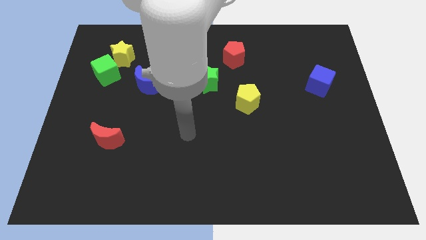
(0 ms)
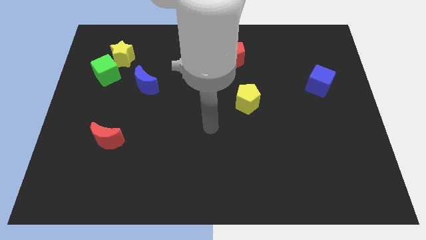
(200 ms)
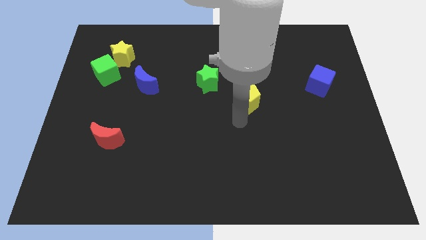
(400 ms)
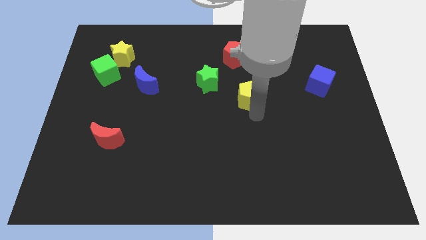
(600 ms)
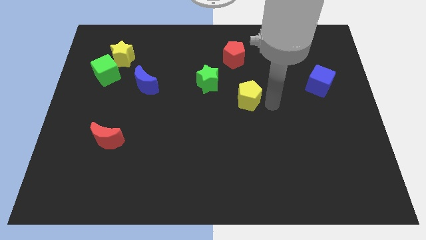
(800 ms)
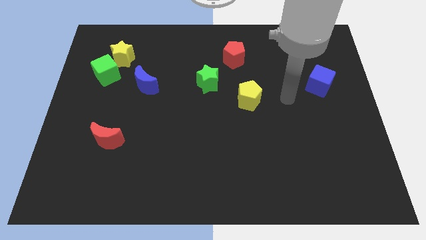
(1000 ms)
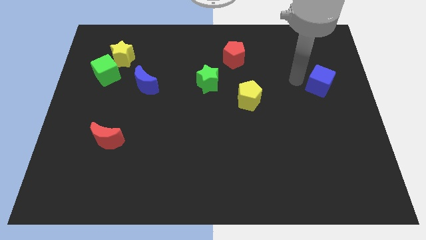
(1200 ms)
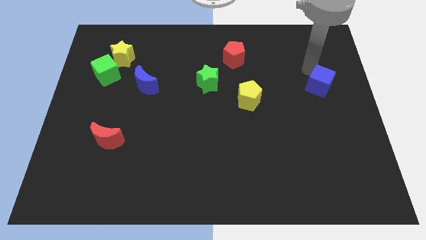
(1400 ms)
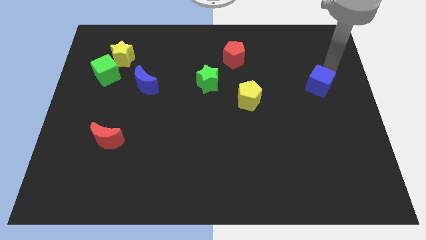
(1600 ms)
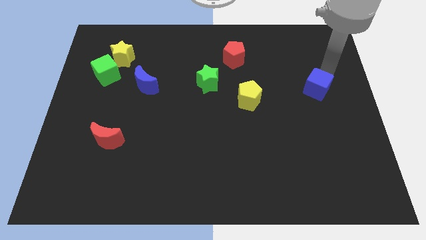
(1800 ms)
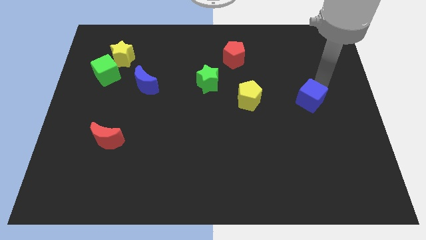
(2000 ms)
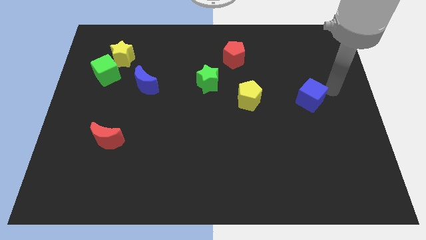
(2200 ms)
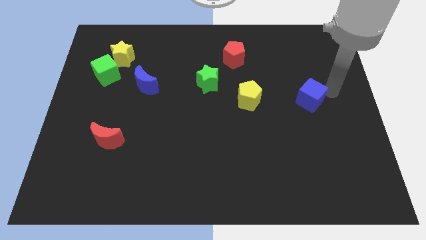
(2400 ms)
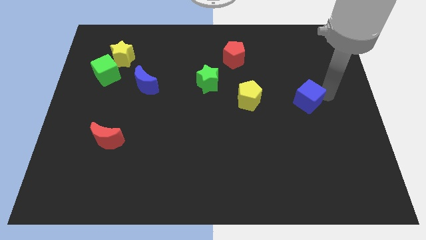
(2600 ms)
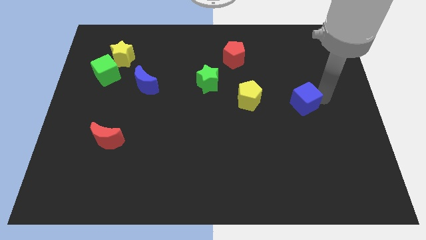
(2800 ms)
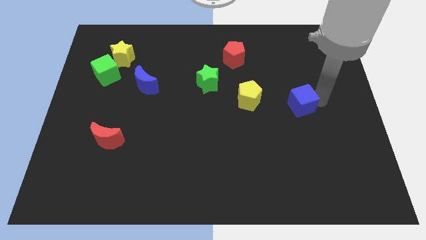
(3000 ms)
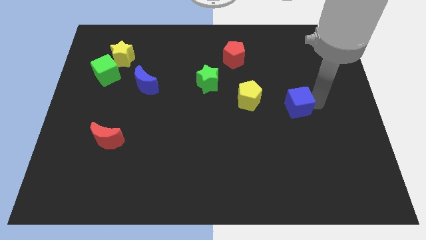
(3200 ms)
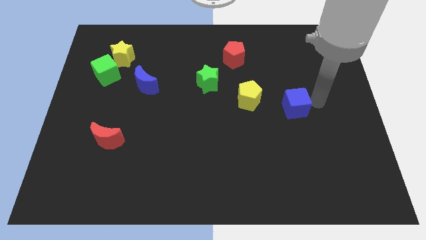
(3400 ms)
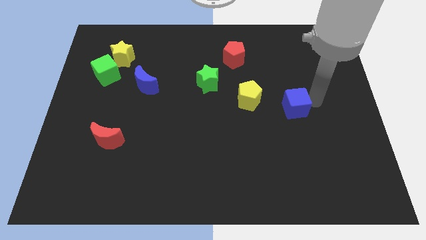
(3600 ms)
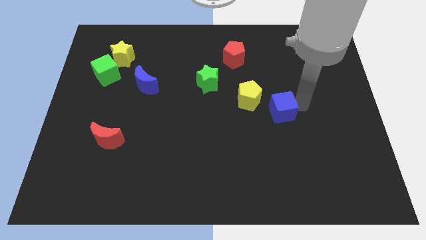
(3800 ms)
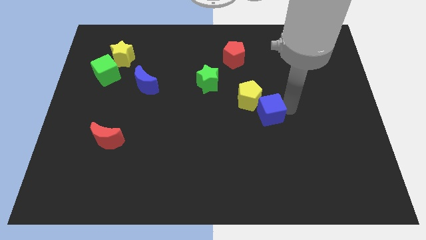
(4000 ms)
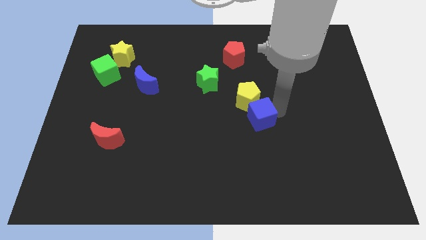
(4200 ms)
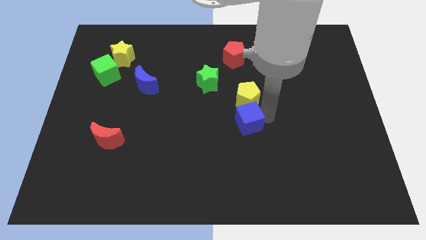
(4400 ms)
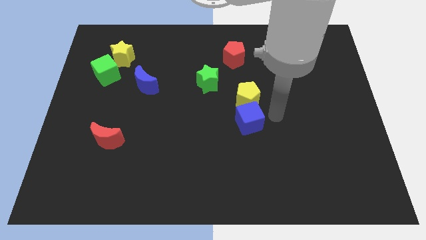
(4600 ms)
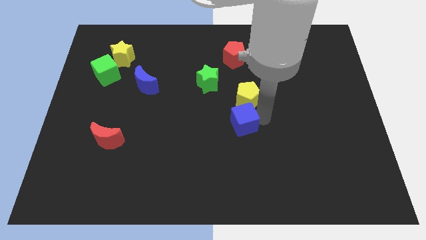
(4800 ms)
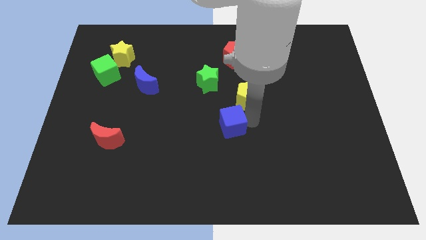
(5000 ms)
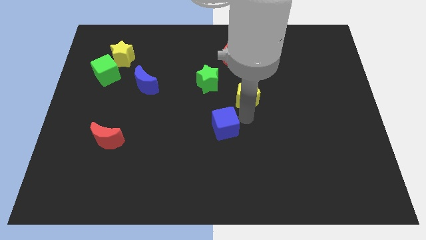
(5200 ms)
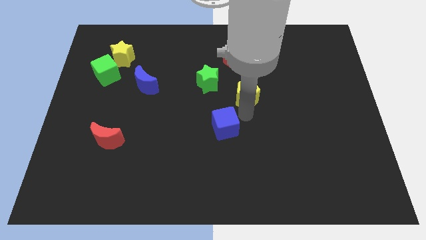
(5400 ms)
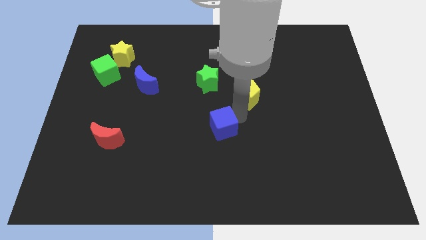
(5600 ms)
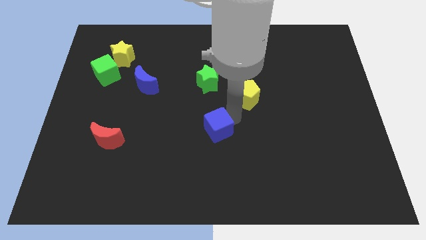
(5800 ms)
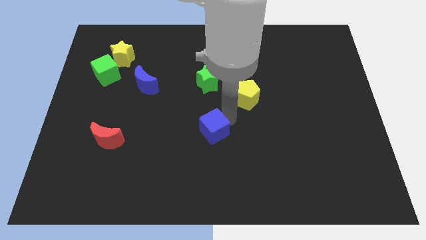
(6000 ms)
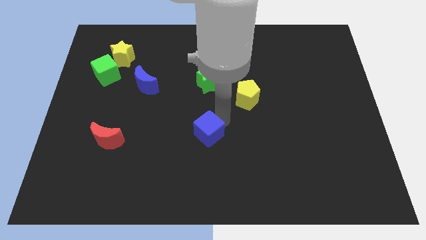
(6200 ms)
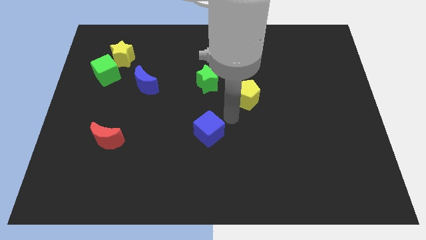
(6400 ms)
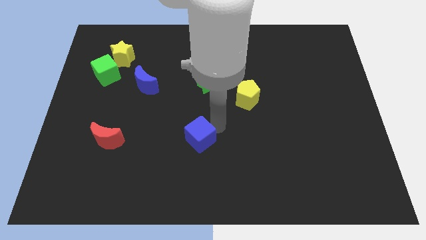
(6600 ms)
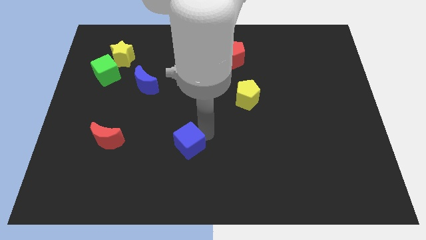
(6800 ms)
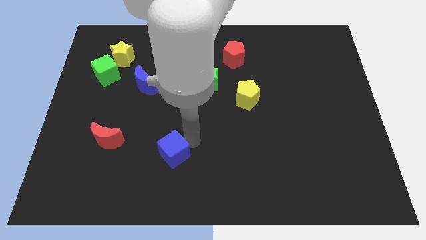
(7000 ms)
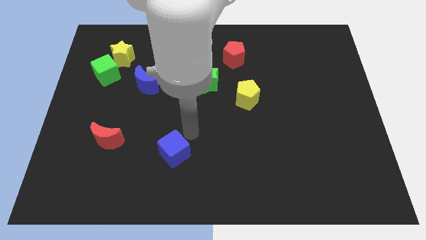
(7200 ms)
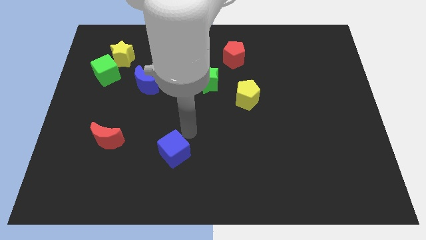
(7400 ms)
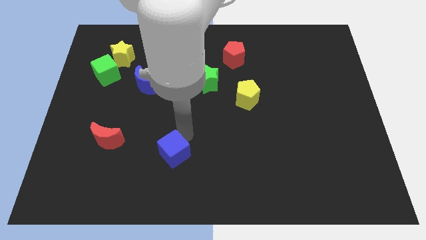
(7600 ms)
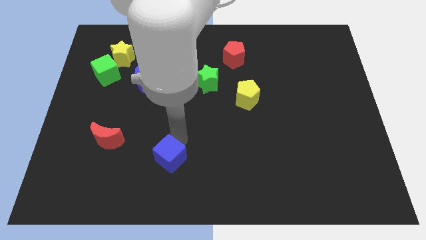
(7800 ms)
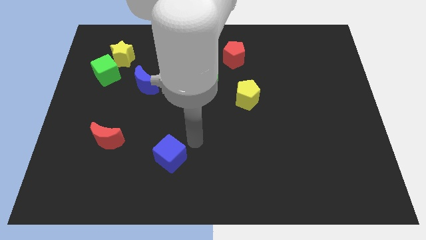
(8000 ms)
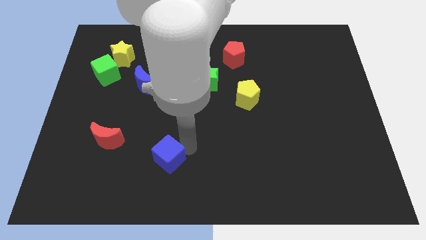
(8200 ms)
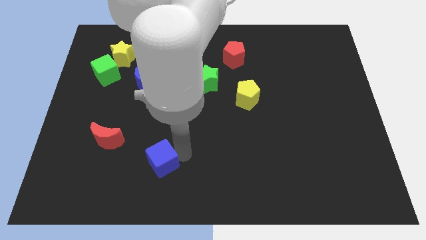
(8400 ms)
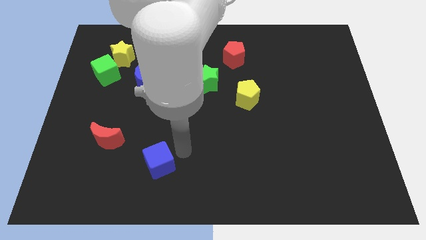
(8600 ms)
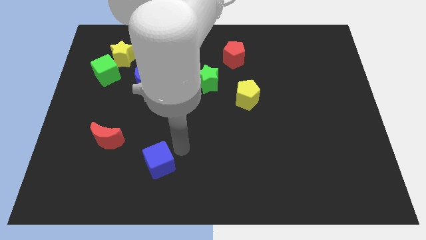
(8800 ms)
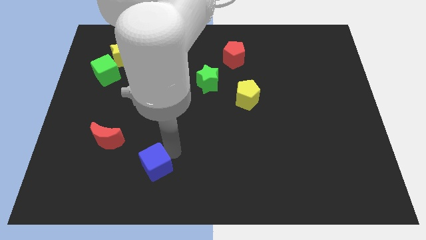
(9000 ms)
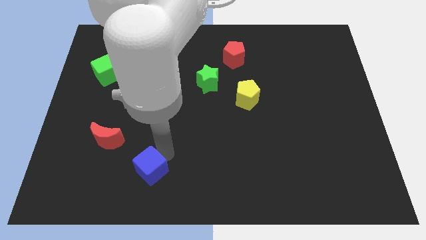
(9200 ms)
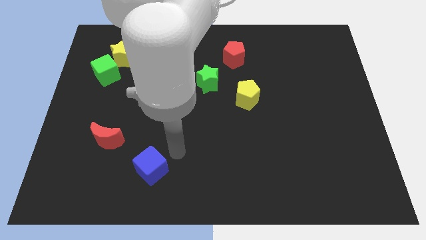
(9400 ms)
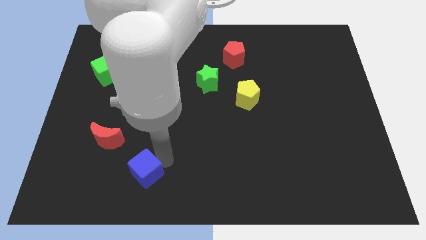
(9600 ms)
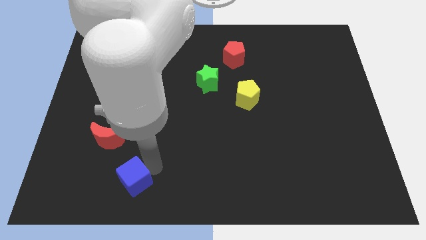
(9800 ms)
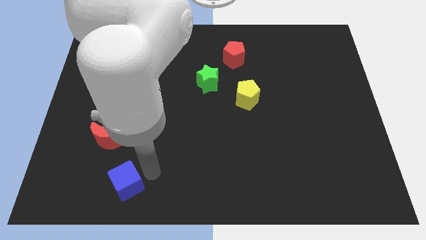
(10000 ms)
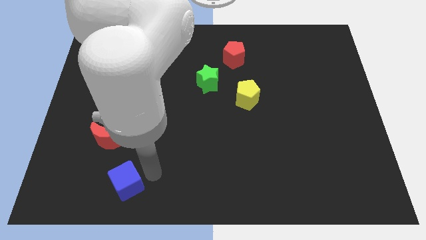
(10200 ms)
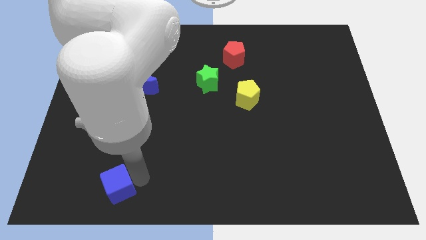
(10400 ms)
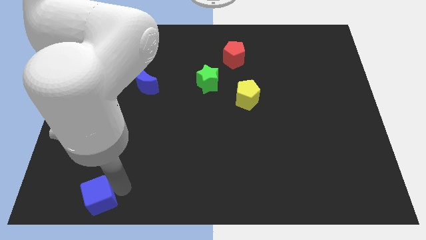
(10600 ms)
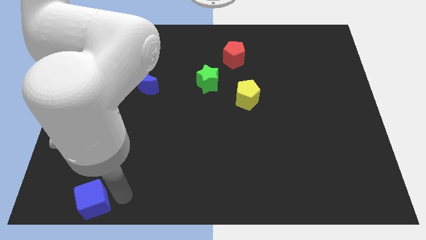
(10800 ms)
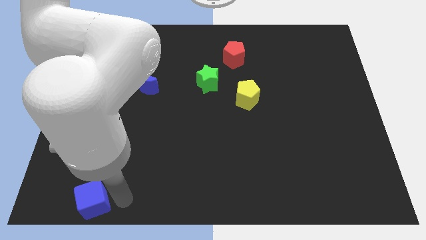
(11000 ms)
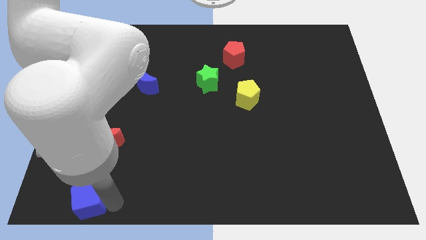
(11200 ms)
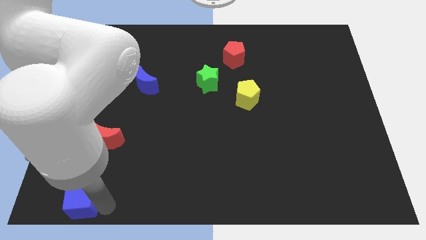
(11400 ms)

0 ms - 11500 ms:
move the blue cube to the lower left corner

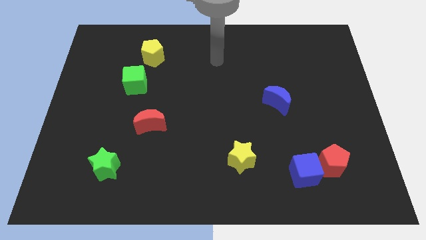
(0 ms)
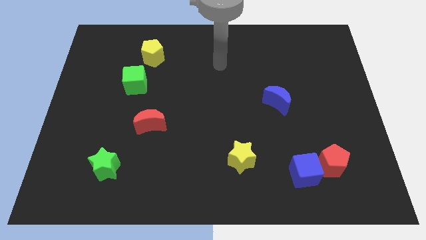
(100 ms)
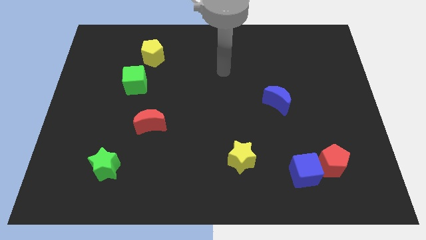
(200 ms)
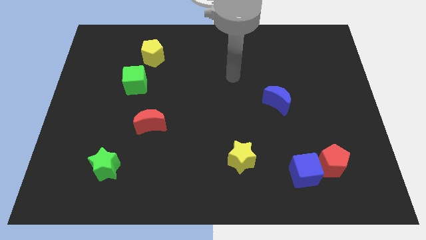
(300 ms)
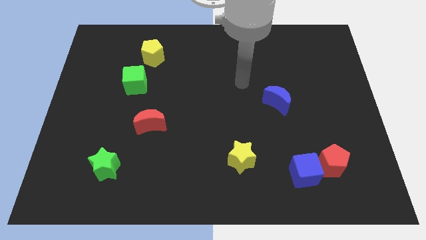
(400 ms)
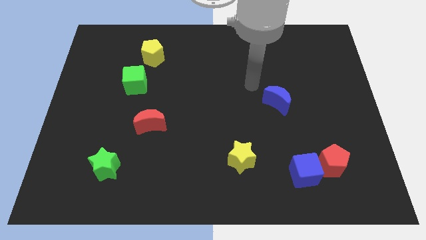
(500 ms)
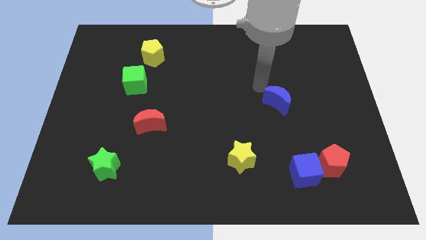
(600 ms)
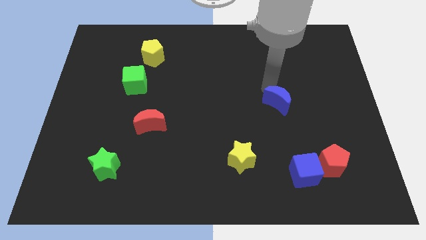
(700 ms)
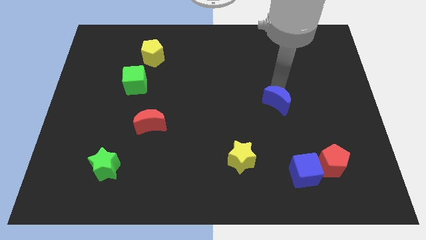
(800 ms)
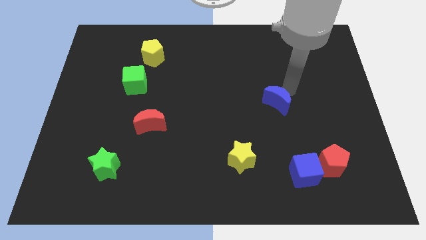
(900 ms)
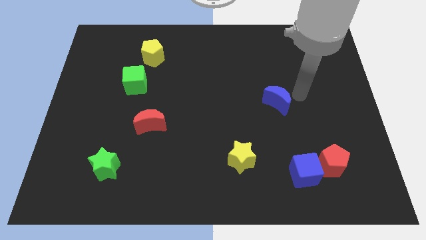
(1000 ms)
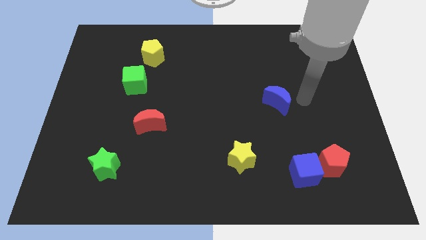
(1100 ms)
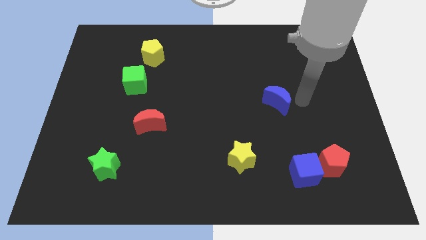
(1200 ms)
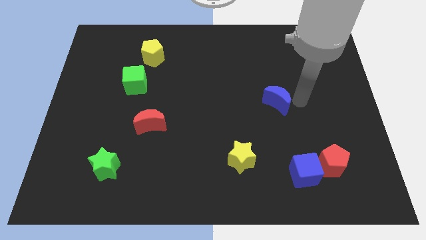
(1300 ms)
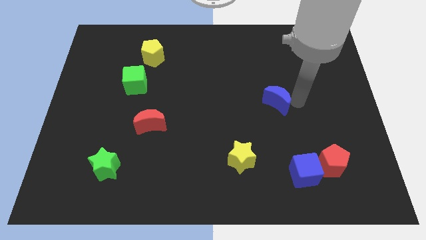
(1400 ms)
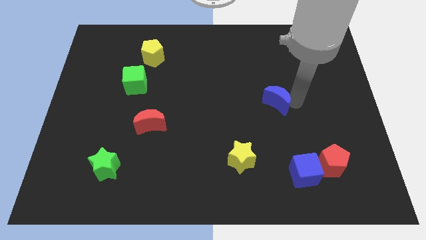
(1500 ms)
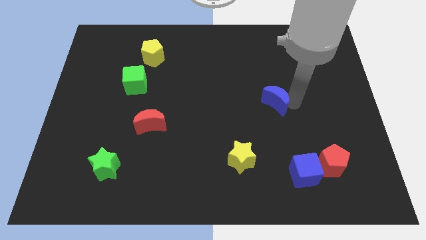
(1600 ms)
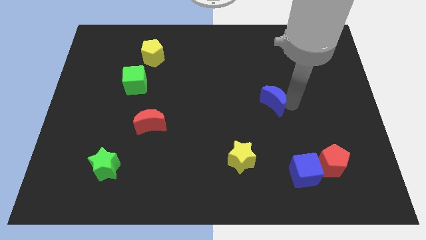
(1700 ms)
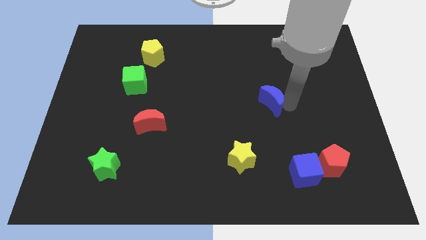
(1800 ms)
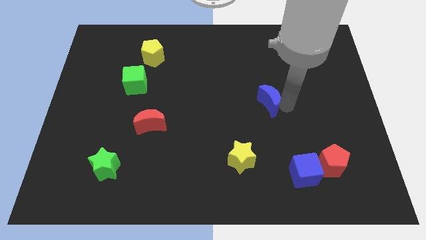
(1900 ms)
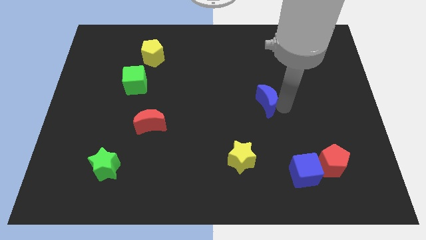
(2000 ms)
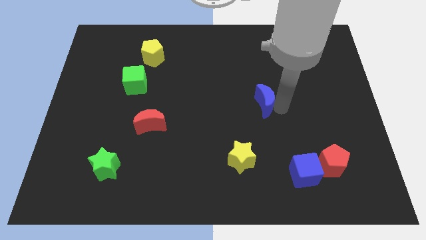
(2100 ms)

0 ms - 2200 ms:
push the blue moon to the middle of the board
